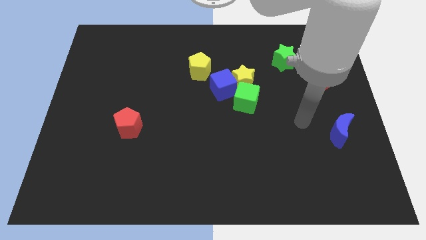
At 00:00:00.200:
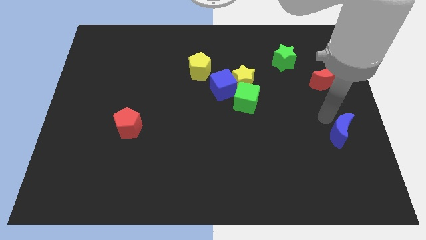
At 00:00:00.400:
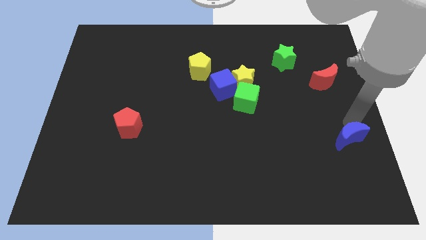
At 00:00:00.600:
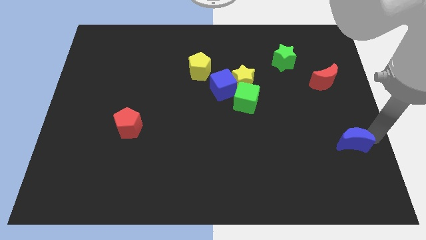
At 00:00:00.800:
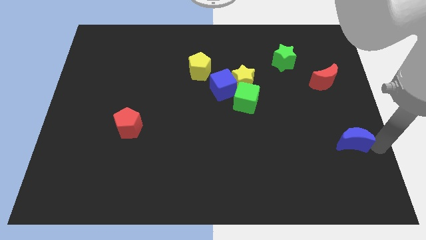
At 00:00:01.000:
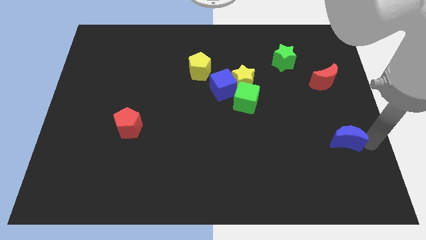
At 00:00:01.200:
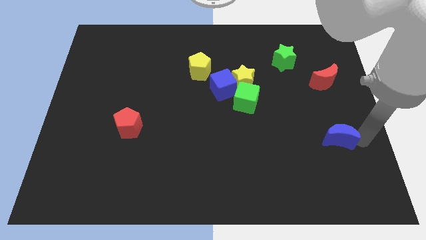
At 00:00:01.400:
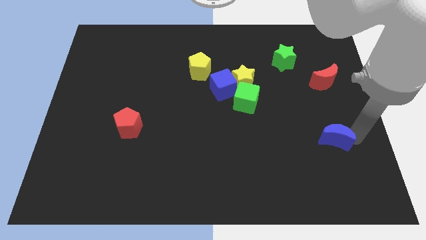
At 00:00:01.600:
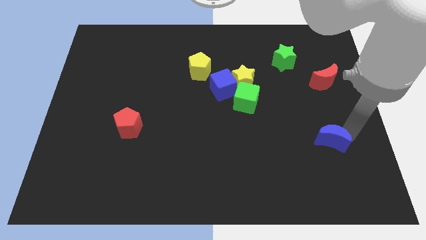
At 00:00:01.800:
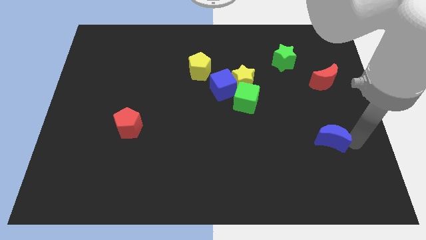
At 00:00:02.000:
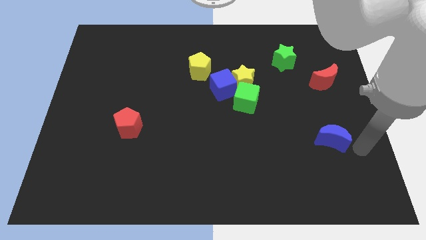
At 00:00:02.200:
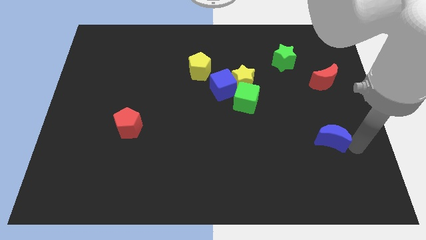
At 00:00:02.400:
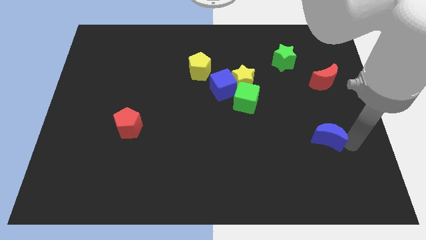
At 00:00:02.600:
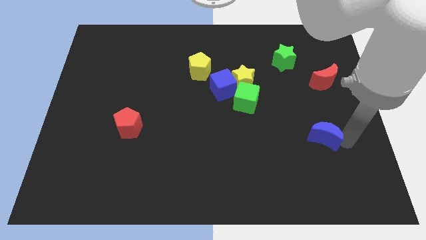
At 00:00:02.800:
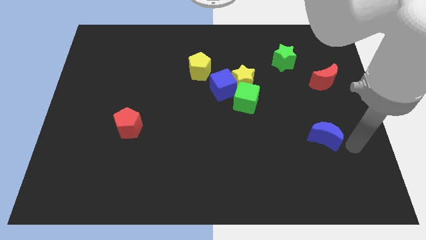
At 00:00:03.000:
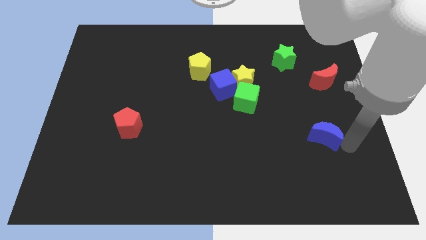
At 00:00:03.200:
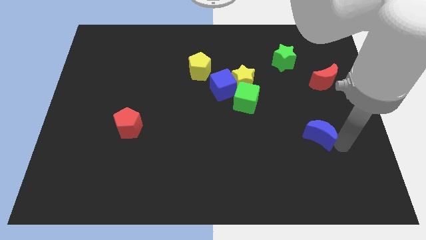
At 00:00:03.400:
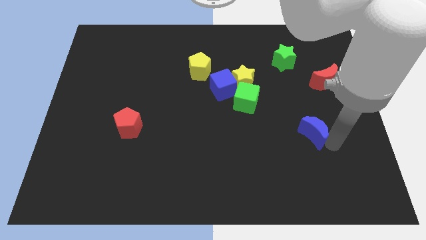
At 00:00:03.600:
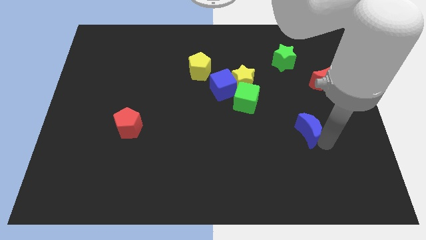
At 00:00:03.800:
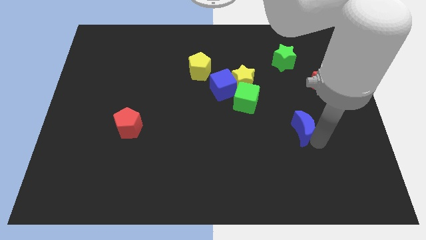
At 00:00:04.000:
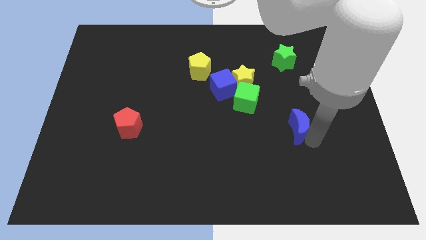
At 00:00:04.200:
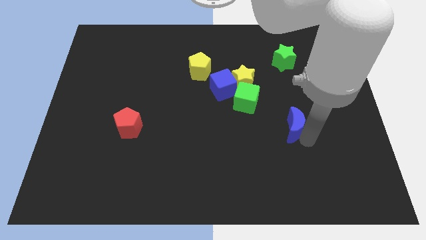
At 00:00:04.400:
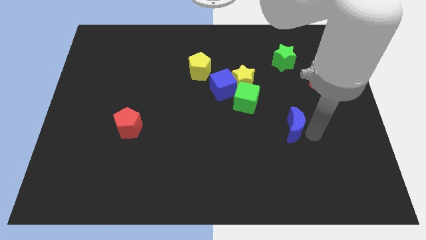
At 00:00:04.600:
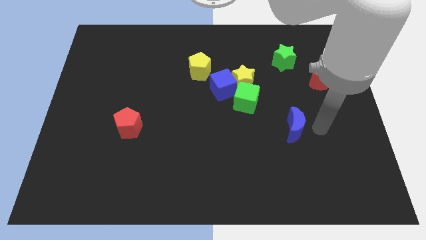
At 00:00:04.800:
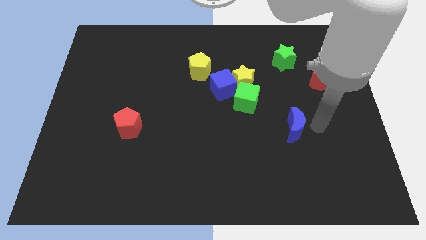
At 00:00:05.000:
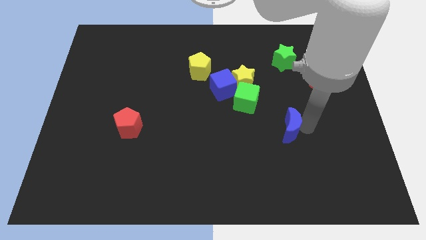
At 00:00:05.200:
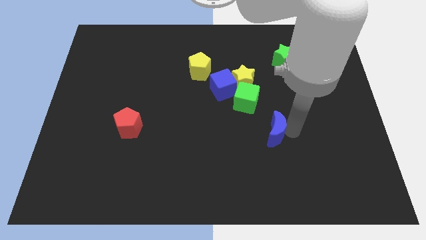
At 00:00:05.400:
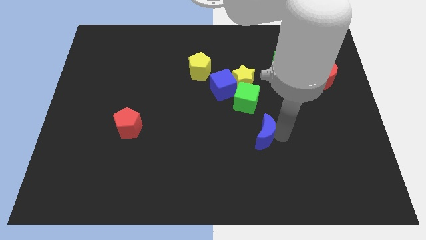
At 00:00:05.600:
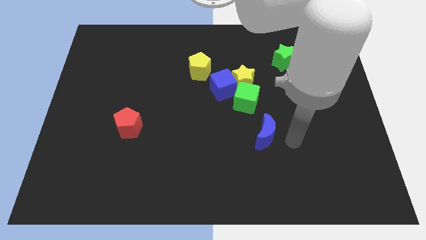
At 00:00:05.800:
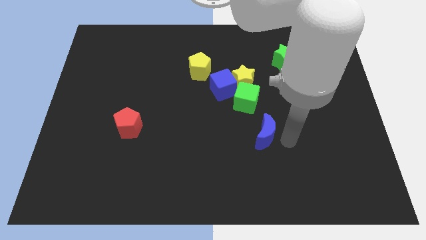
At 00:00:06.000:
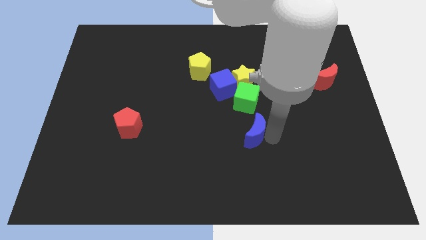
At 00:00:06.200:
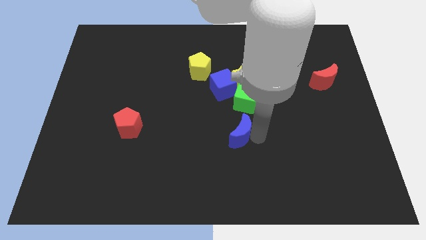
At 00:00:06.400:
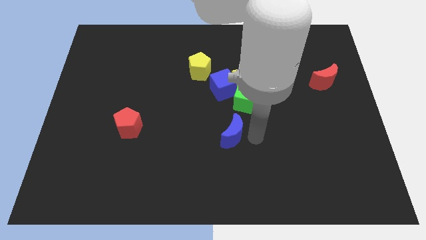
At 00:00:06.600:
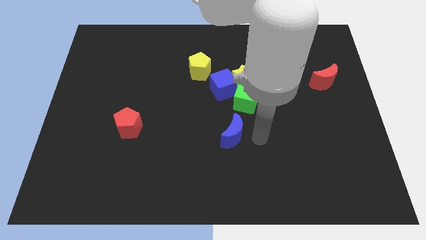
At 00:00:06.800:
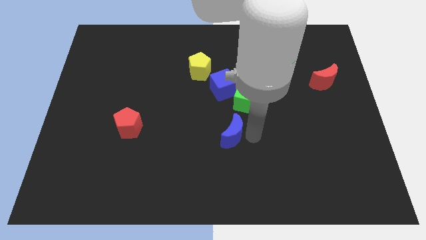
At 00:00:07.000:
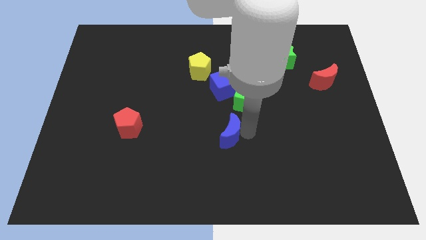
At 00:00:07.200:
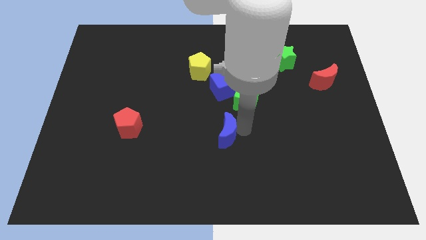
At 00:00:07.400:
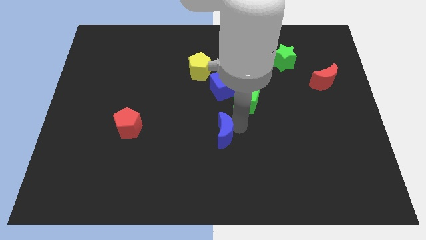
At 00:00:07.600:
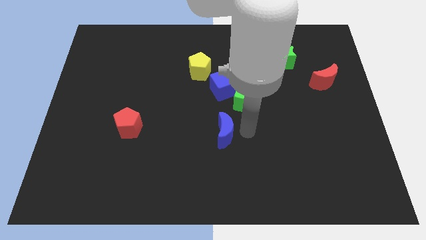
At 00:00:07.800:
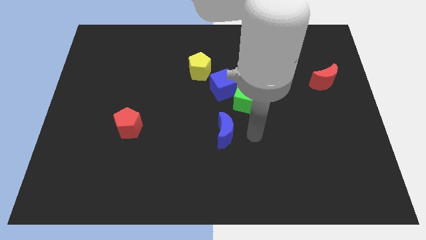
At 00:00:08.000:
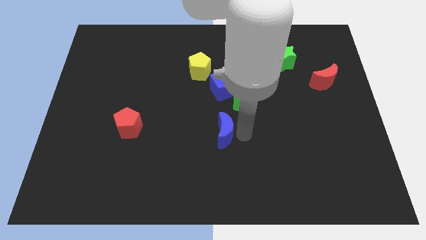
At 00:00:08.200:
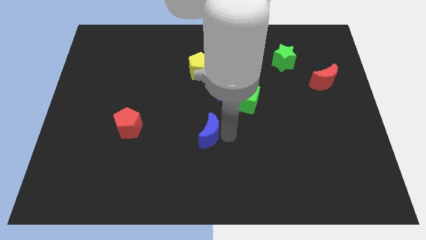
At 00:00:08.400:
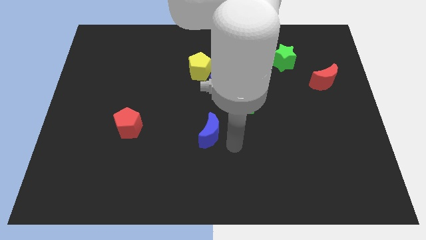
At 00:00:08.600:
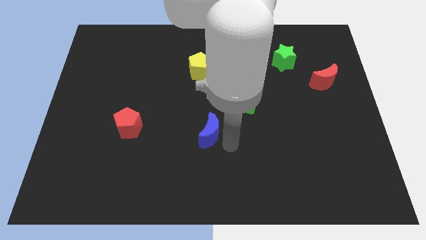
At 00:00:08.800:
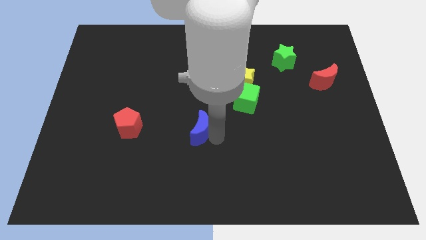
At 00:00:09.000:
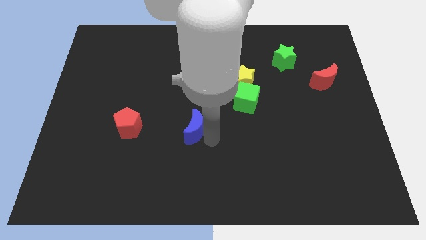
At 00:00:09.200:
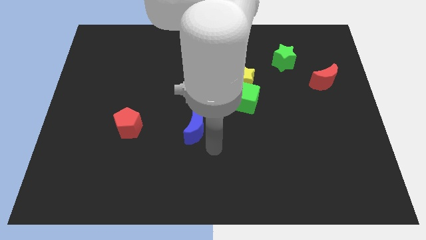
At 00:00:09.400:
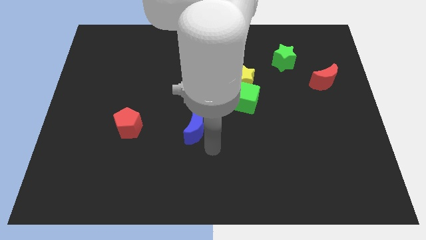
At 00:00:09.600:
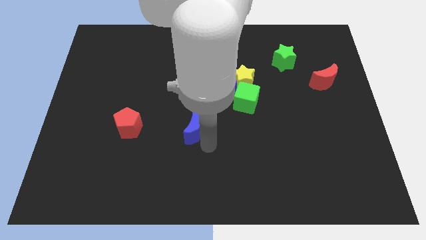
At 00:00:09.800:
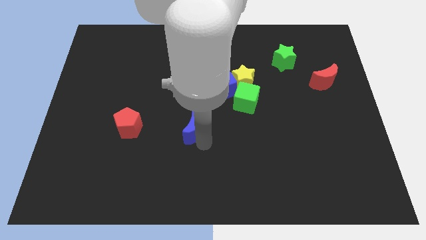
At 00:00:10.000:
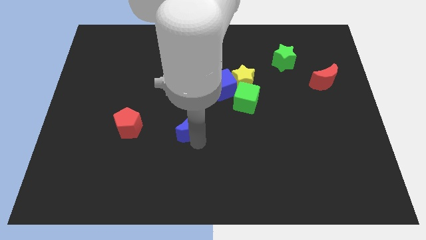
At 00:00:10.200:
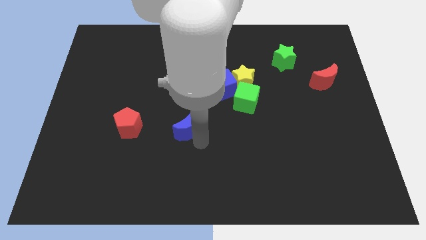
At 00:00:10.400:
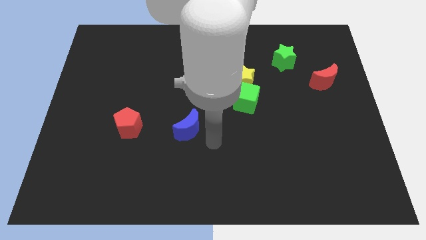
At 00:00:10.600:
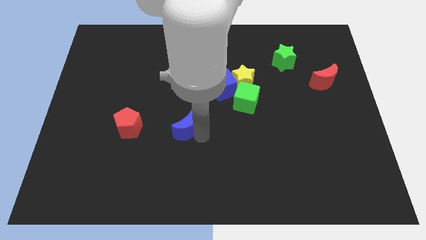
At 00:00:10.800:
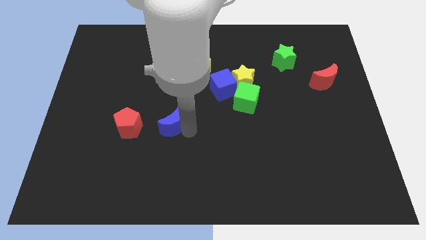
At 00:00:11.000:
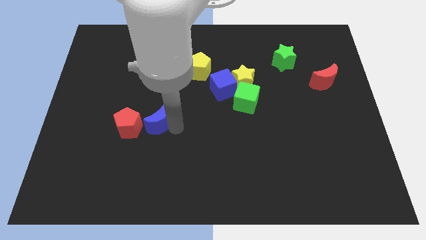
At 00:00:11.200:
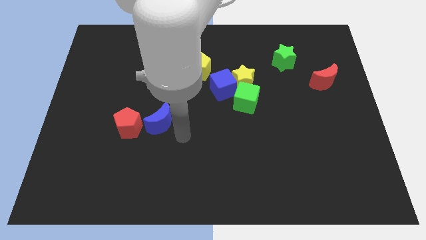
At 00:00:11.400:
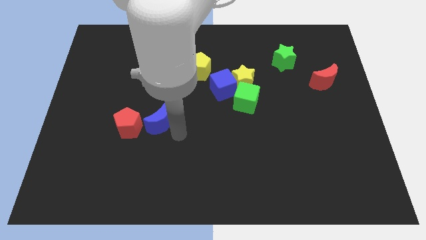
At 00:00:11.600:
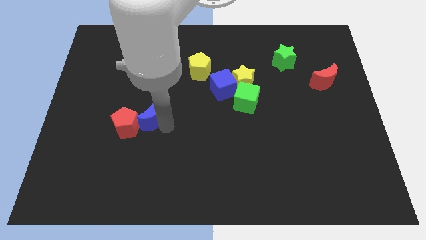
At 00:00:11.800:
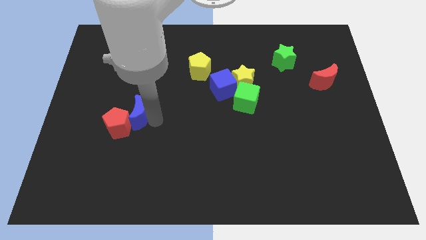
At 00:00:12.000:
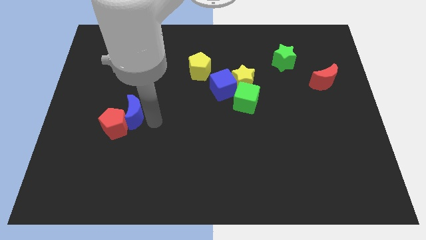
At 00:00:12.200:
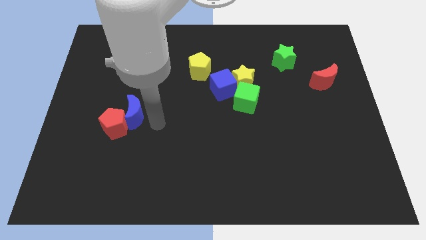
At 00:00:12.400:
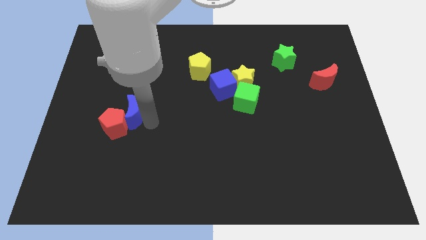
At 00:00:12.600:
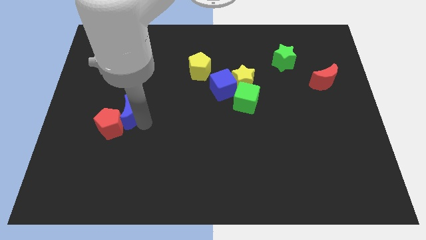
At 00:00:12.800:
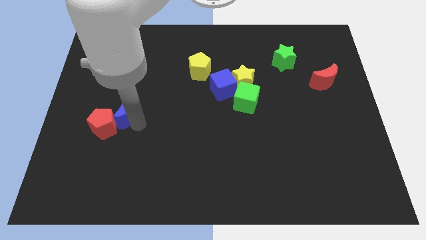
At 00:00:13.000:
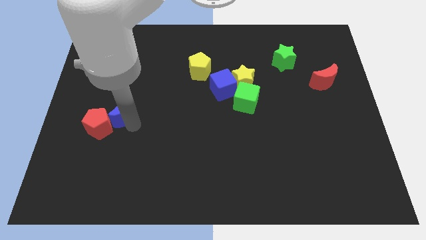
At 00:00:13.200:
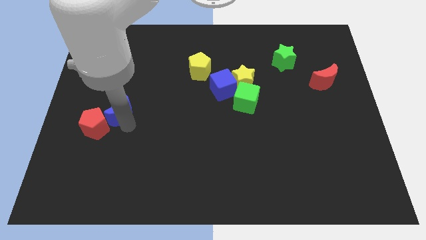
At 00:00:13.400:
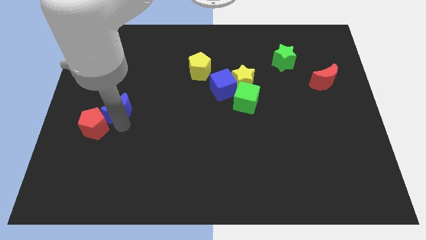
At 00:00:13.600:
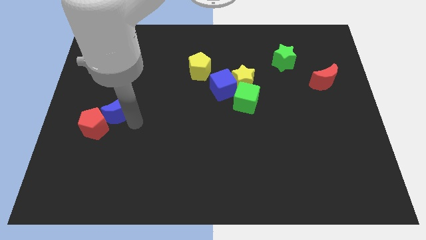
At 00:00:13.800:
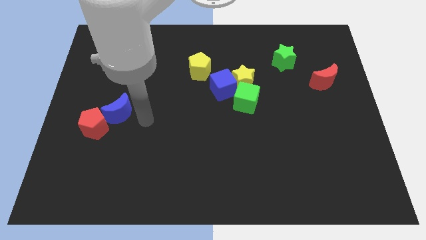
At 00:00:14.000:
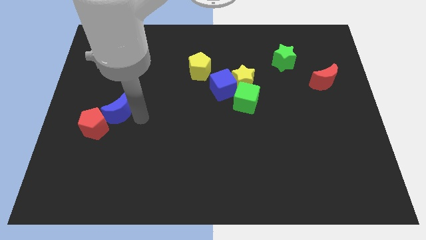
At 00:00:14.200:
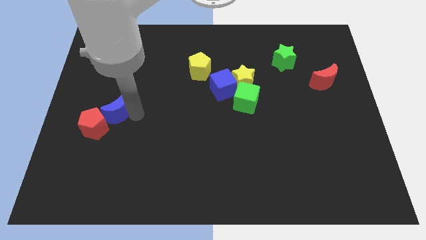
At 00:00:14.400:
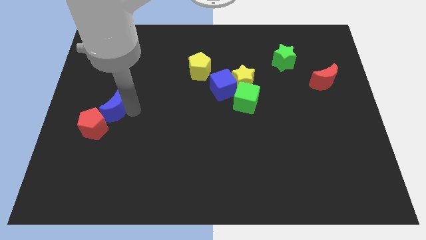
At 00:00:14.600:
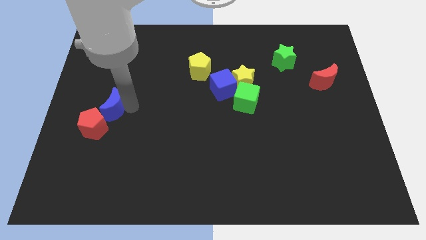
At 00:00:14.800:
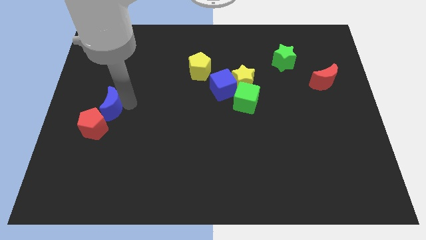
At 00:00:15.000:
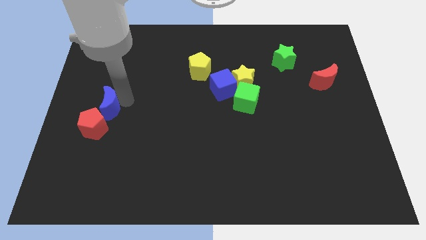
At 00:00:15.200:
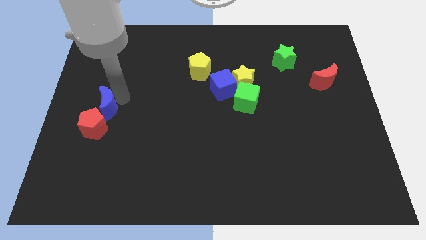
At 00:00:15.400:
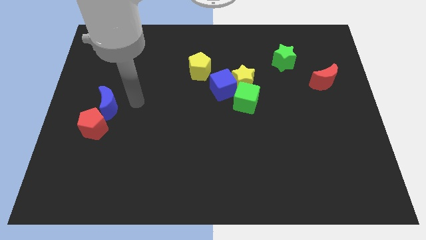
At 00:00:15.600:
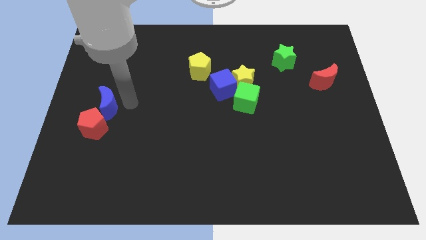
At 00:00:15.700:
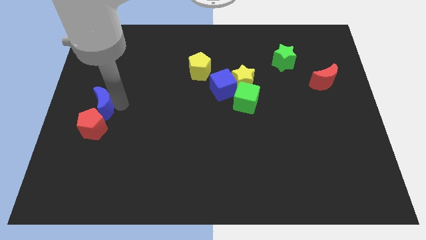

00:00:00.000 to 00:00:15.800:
move the blue moon to the center left
